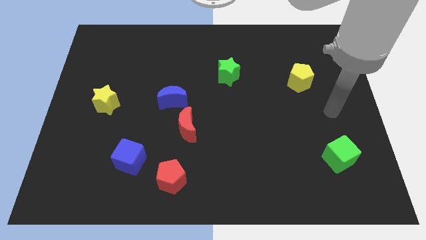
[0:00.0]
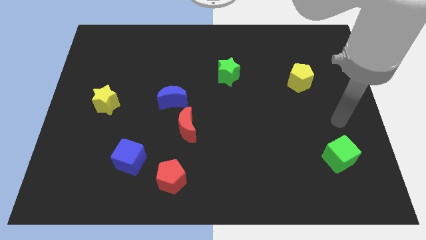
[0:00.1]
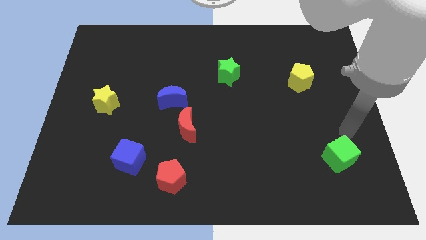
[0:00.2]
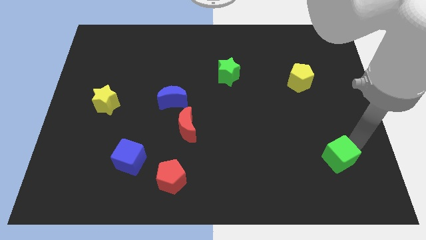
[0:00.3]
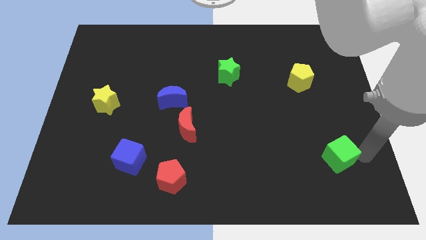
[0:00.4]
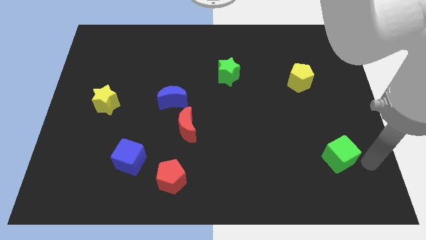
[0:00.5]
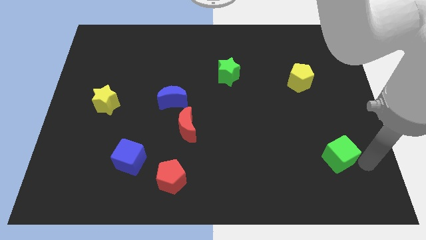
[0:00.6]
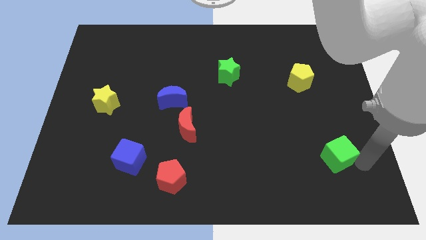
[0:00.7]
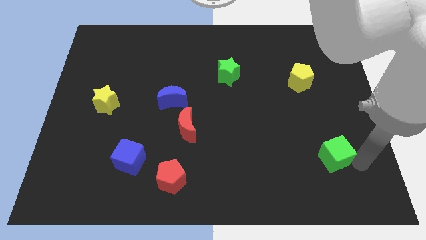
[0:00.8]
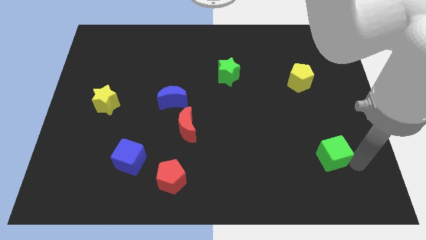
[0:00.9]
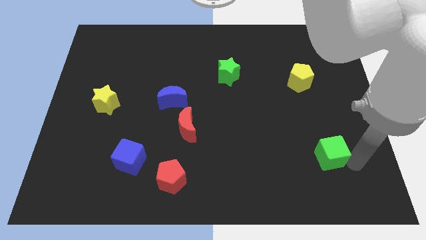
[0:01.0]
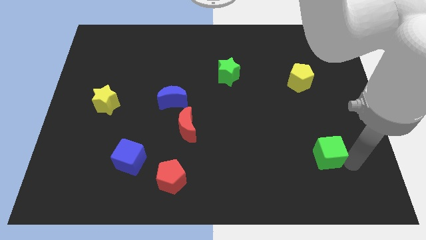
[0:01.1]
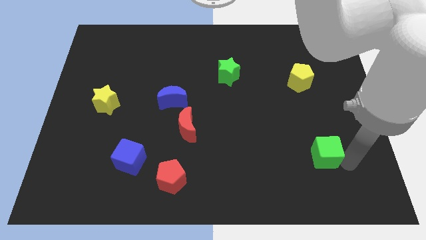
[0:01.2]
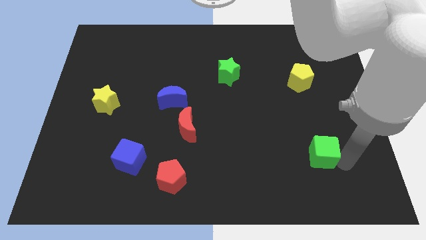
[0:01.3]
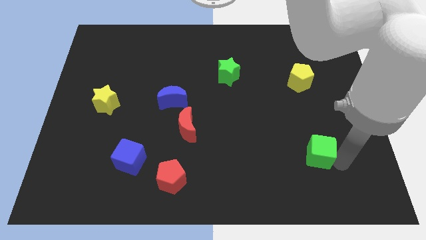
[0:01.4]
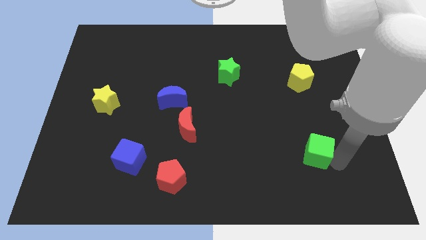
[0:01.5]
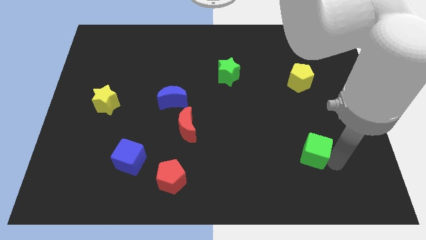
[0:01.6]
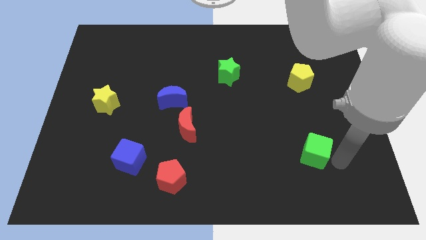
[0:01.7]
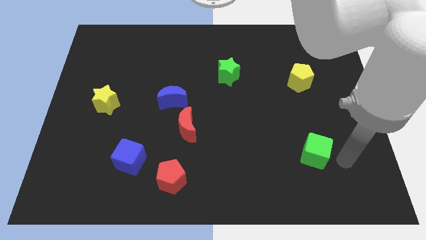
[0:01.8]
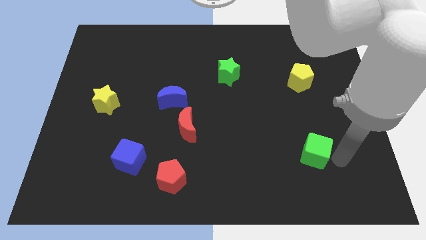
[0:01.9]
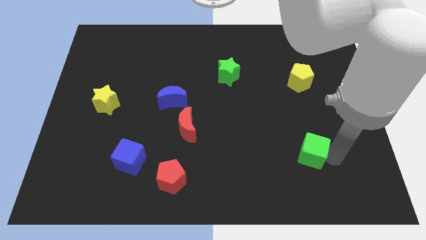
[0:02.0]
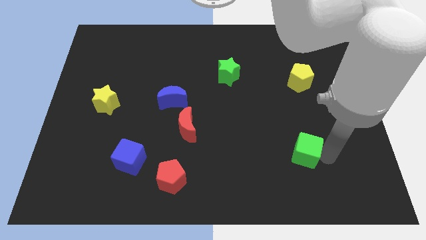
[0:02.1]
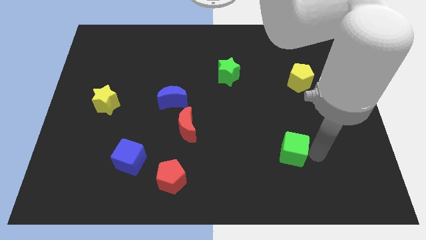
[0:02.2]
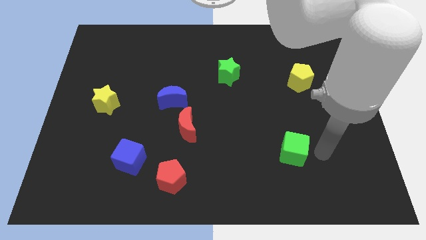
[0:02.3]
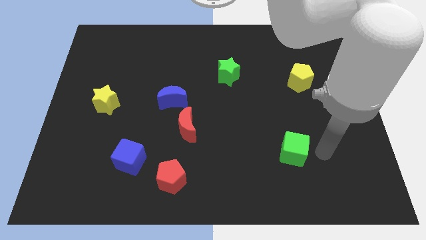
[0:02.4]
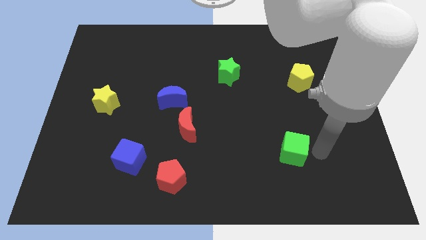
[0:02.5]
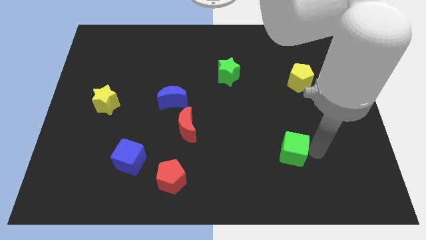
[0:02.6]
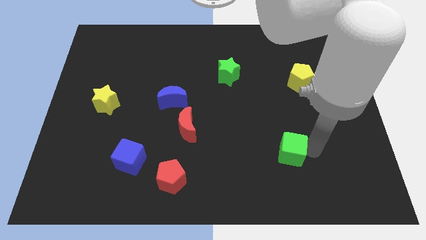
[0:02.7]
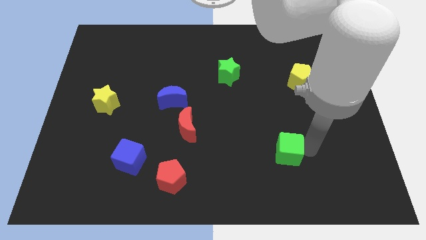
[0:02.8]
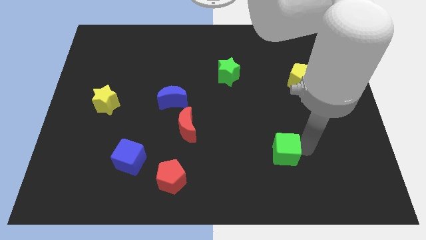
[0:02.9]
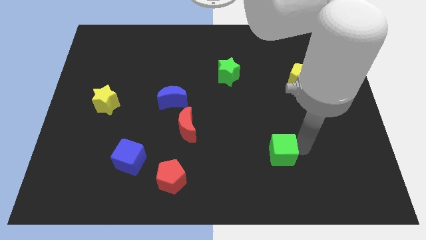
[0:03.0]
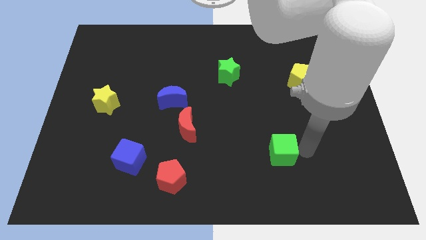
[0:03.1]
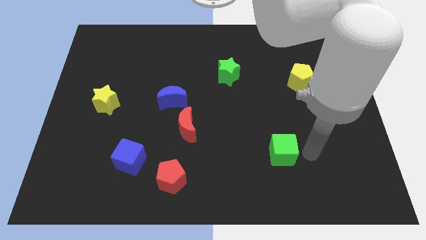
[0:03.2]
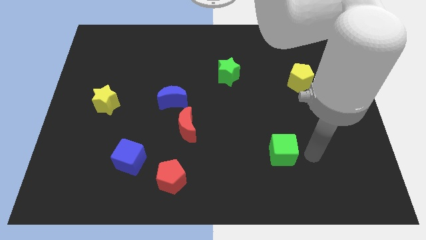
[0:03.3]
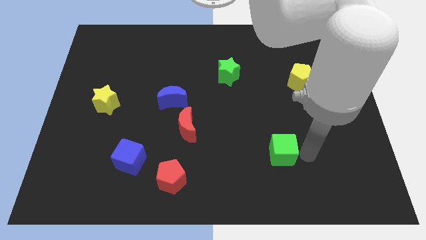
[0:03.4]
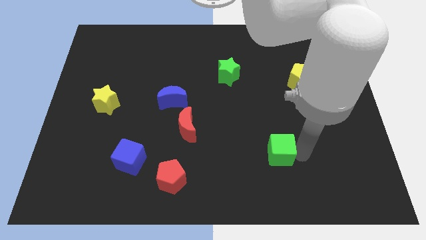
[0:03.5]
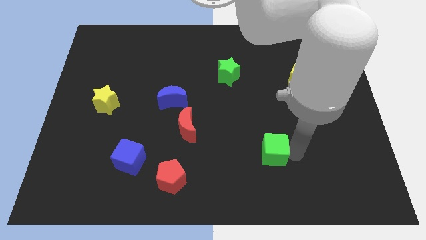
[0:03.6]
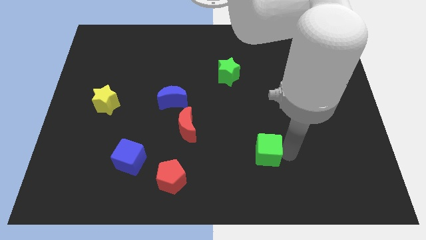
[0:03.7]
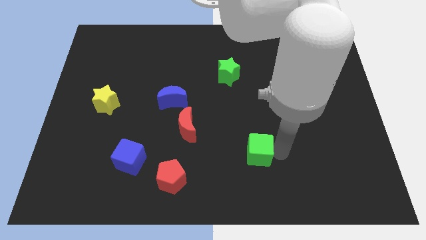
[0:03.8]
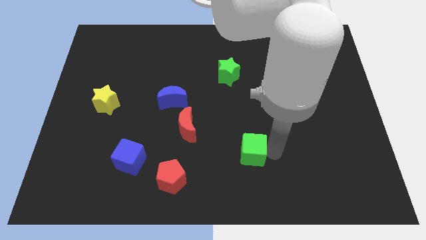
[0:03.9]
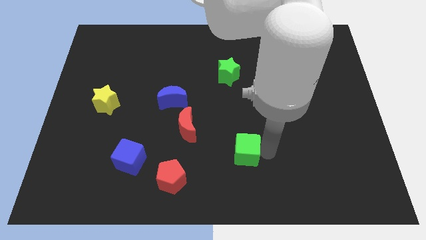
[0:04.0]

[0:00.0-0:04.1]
slide the green cube to the left

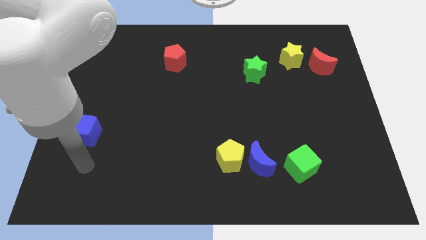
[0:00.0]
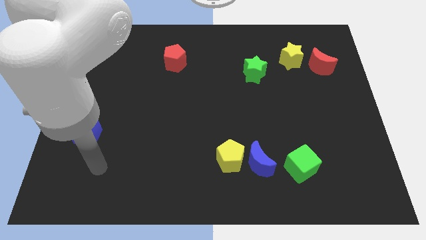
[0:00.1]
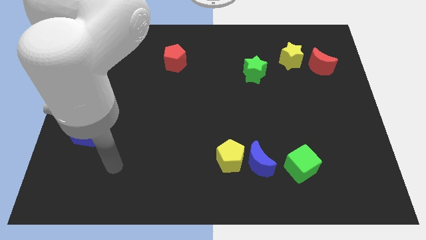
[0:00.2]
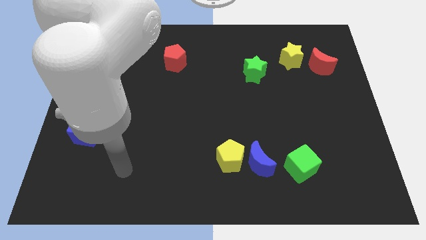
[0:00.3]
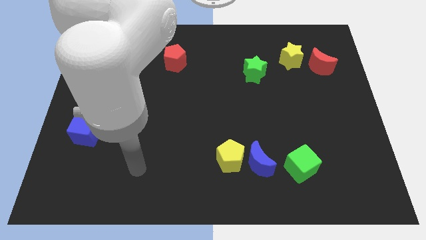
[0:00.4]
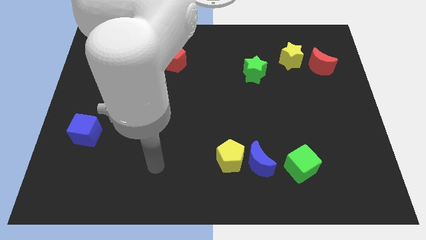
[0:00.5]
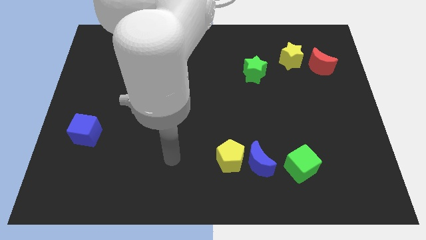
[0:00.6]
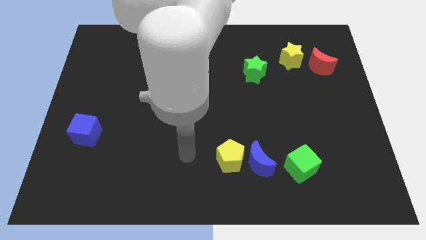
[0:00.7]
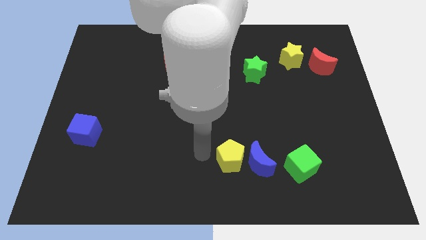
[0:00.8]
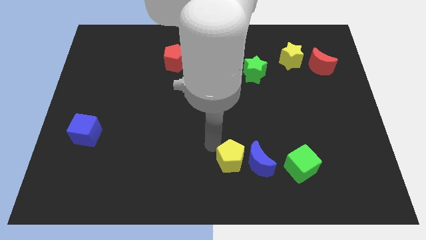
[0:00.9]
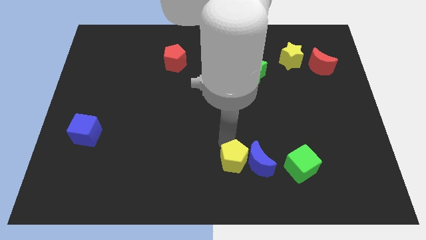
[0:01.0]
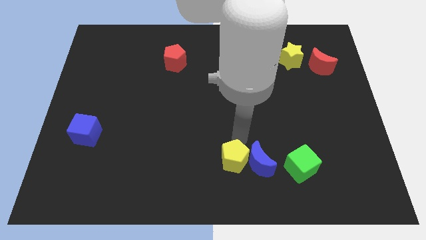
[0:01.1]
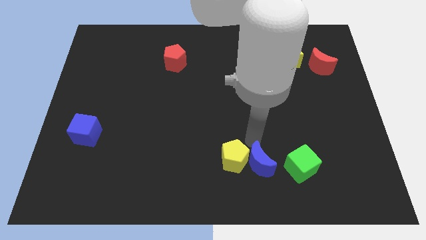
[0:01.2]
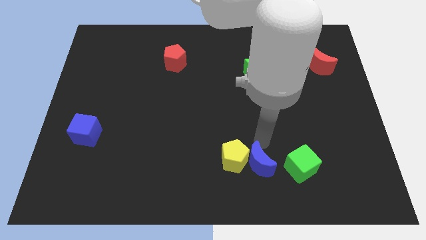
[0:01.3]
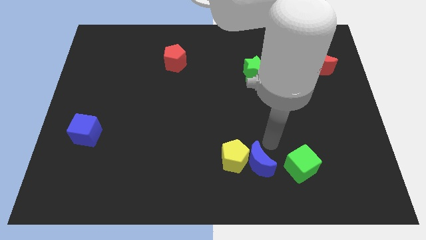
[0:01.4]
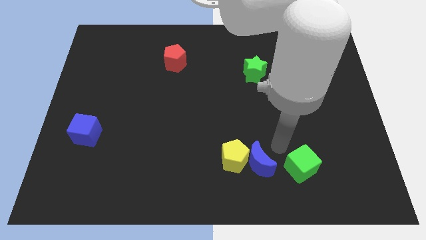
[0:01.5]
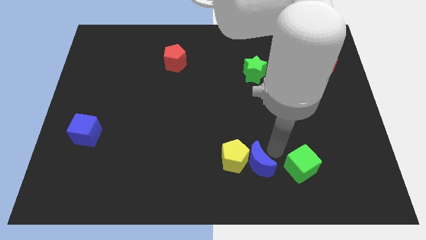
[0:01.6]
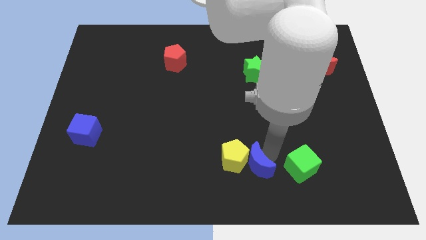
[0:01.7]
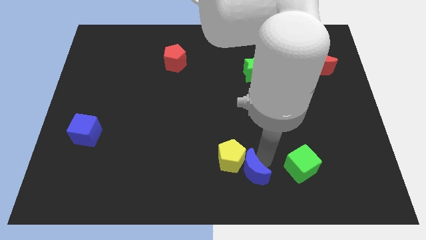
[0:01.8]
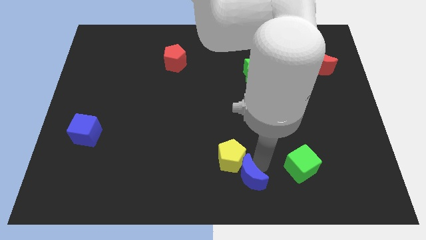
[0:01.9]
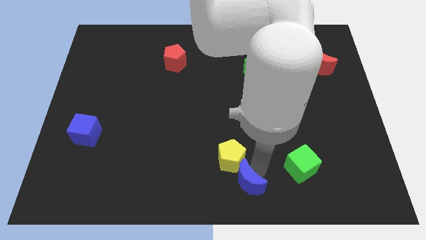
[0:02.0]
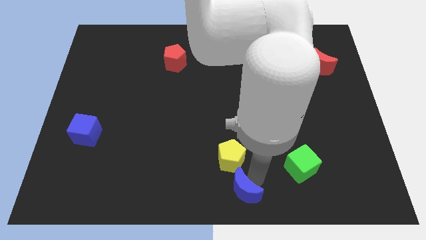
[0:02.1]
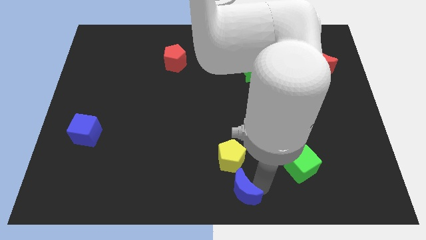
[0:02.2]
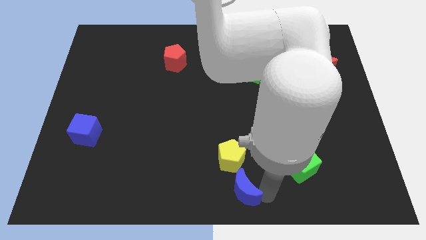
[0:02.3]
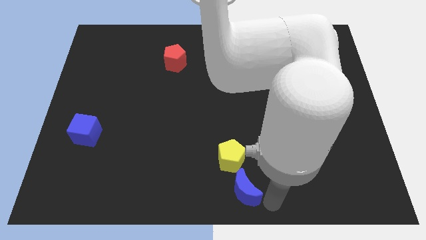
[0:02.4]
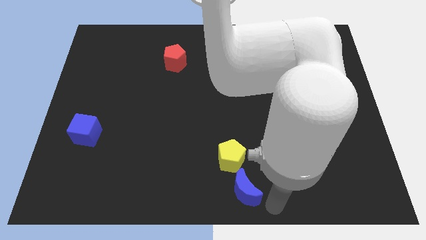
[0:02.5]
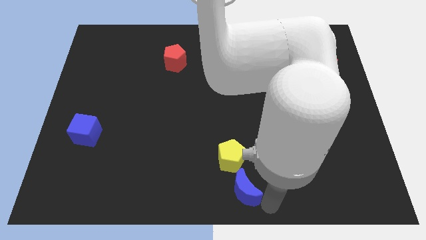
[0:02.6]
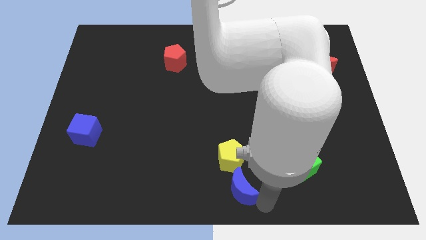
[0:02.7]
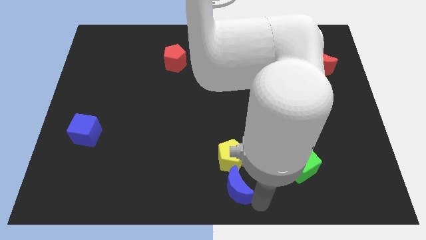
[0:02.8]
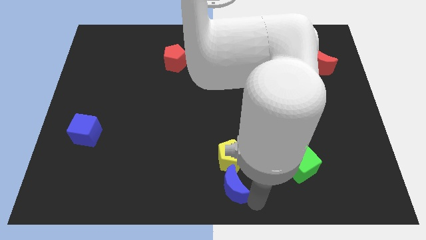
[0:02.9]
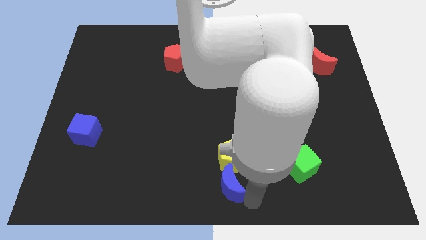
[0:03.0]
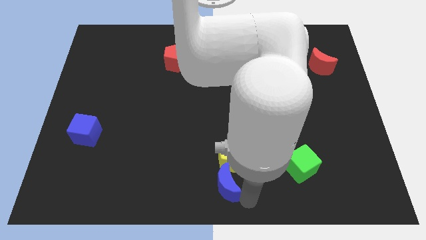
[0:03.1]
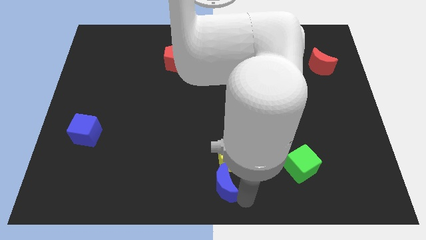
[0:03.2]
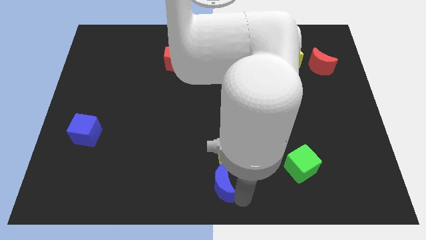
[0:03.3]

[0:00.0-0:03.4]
slightly slide the blue moon to the left

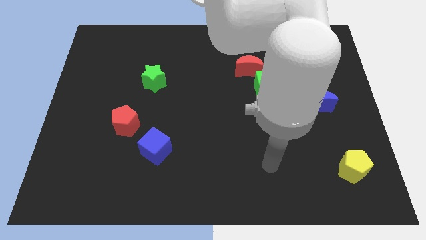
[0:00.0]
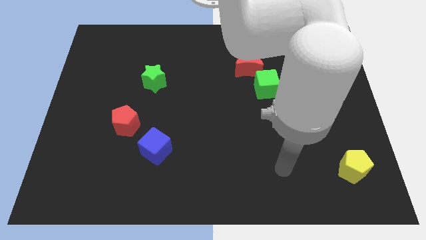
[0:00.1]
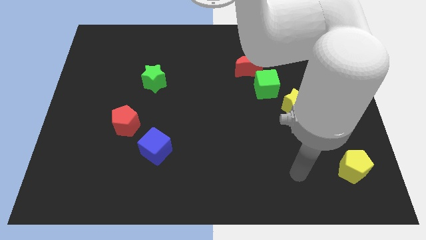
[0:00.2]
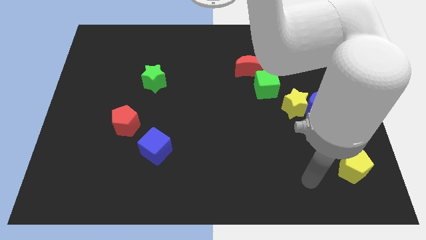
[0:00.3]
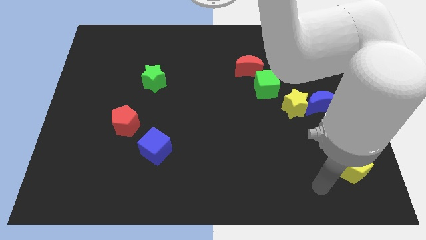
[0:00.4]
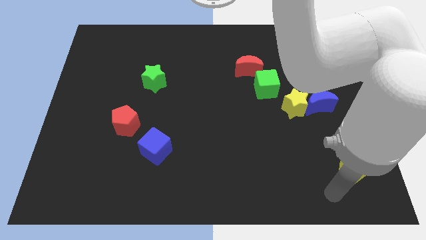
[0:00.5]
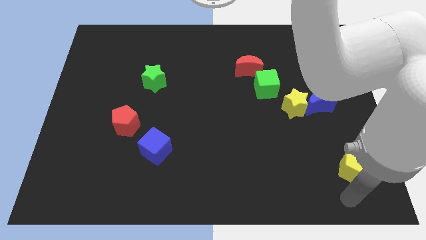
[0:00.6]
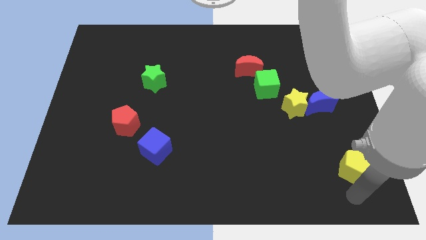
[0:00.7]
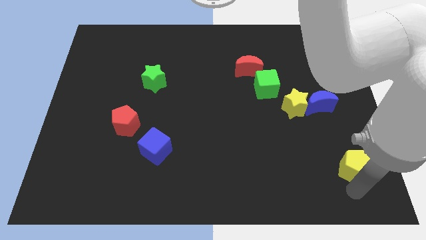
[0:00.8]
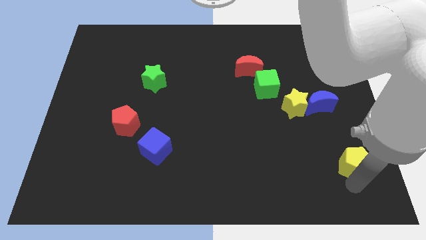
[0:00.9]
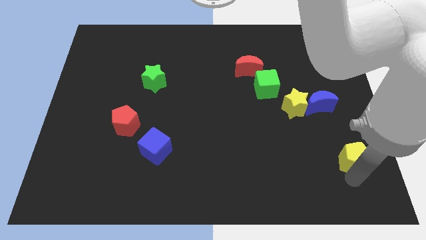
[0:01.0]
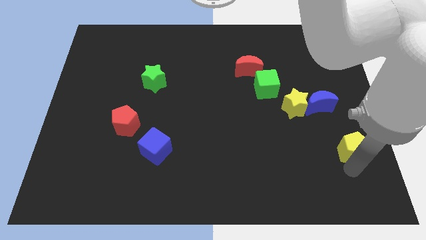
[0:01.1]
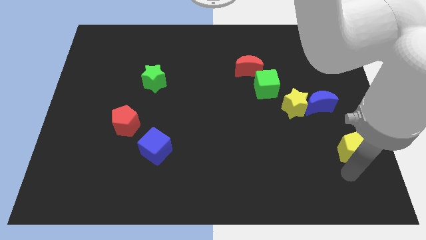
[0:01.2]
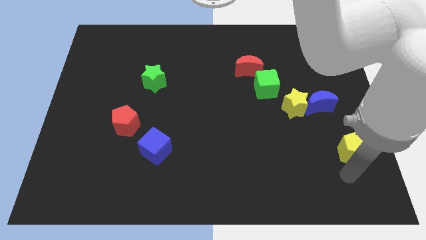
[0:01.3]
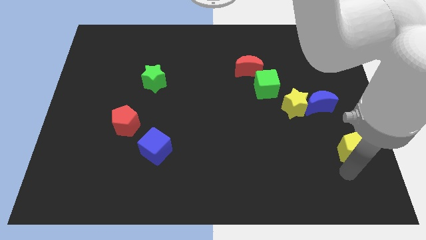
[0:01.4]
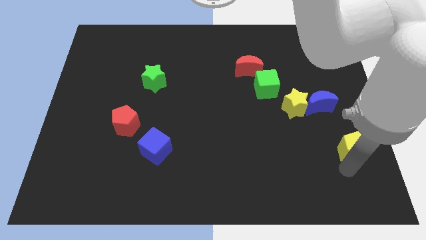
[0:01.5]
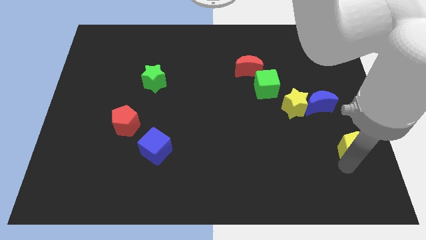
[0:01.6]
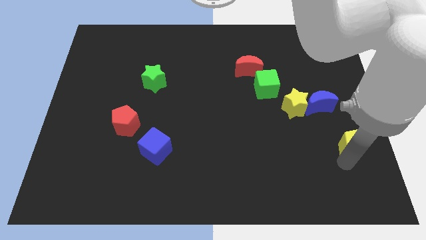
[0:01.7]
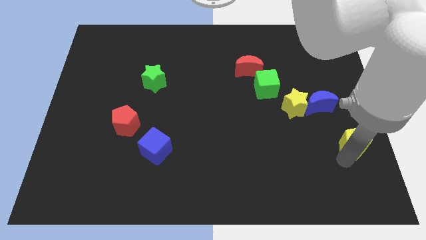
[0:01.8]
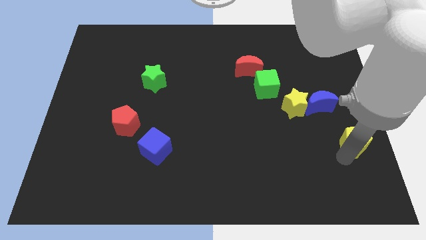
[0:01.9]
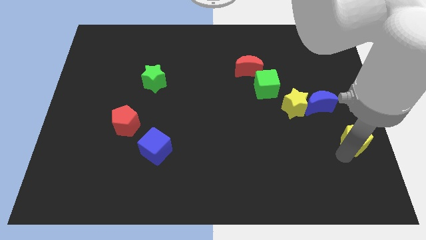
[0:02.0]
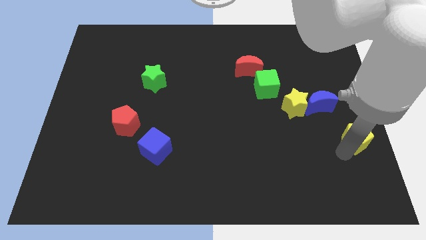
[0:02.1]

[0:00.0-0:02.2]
move the yellow pentagon upwards a little bit
